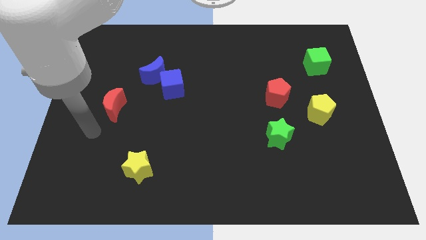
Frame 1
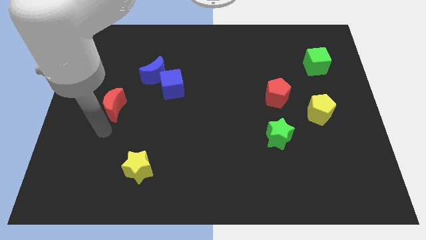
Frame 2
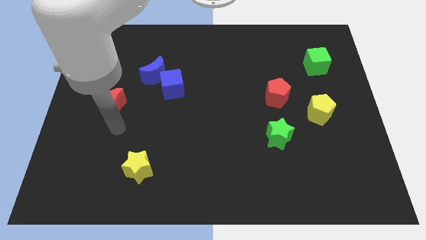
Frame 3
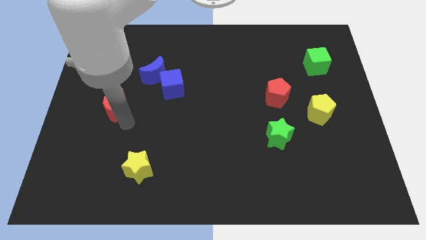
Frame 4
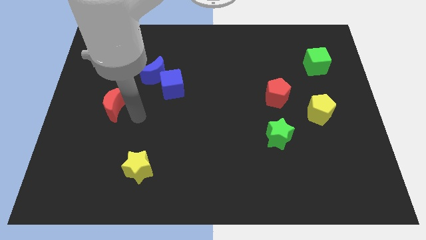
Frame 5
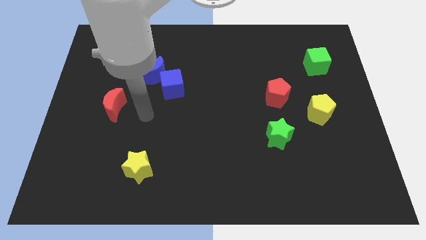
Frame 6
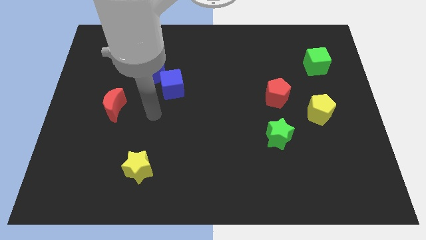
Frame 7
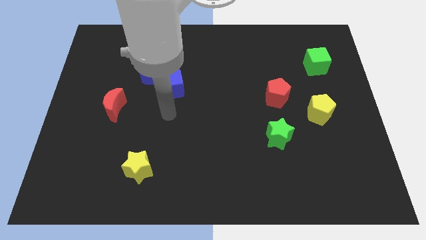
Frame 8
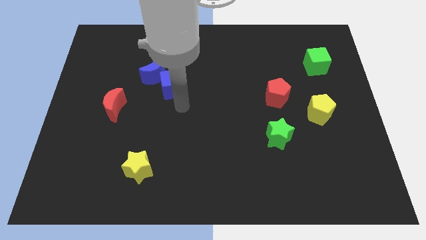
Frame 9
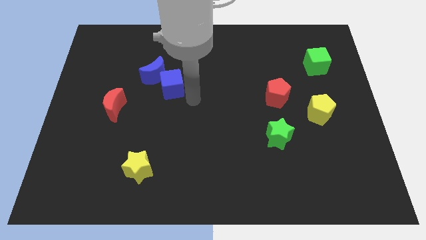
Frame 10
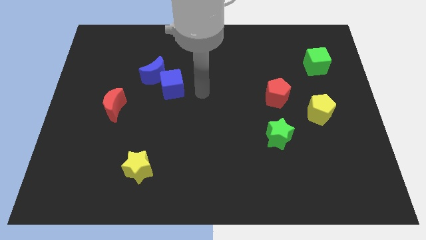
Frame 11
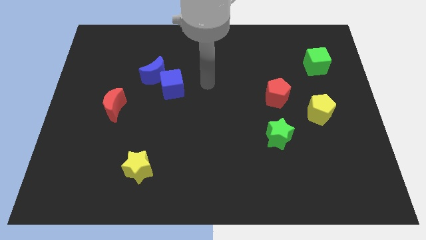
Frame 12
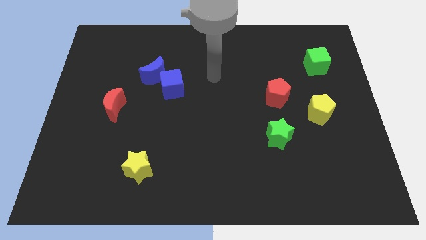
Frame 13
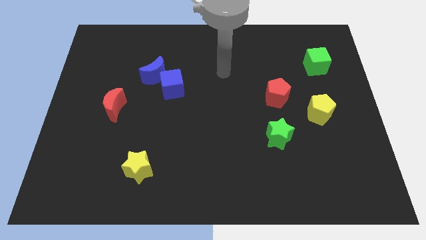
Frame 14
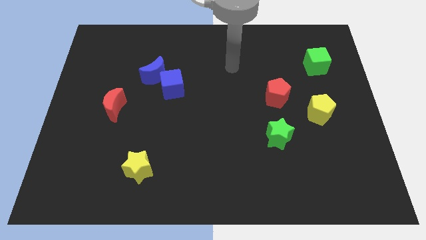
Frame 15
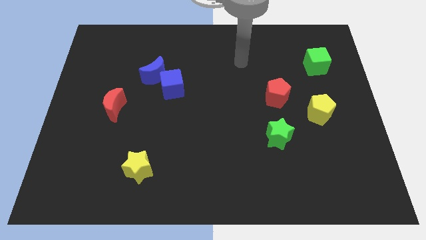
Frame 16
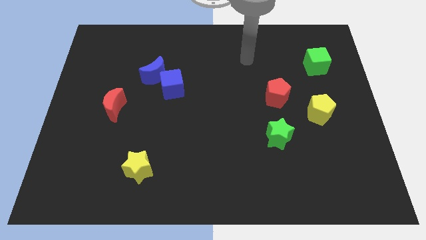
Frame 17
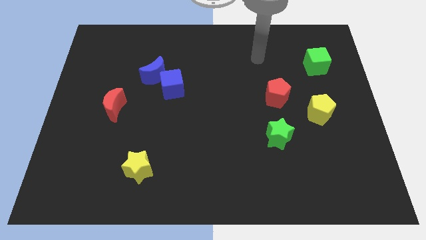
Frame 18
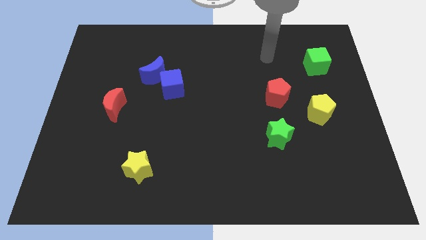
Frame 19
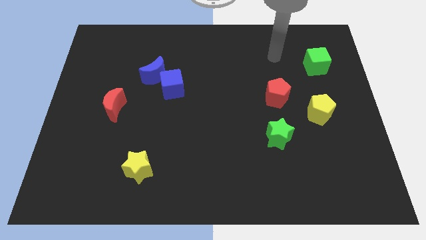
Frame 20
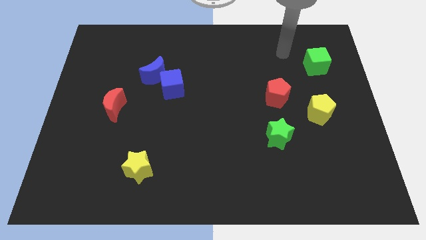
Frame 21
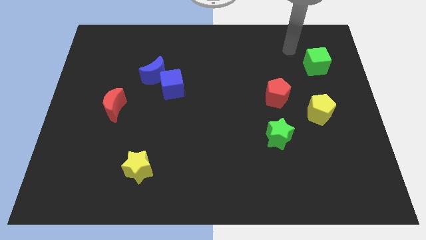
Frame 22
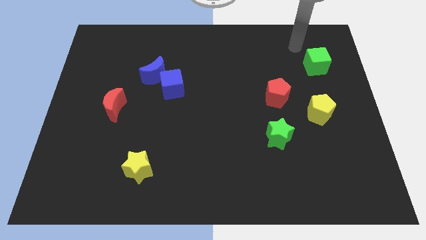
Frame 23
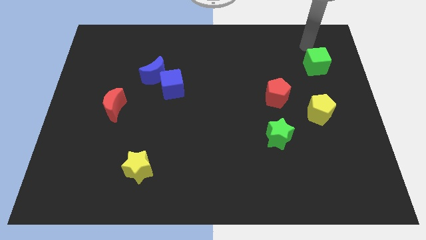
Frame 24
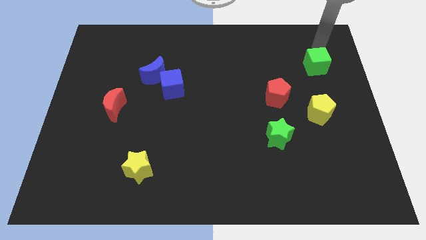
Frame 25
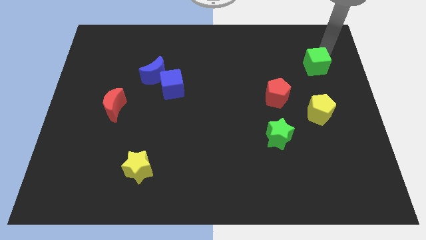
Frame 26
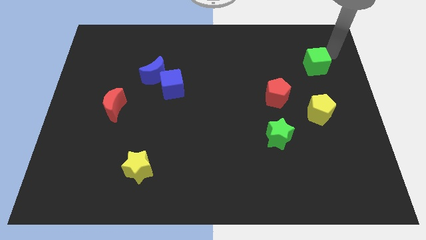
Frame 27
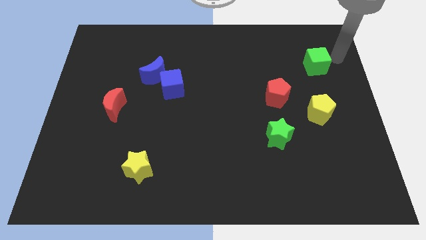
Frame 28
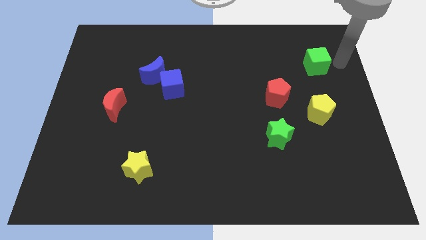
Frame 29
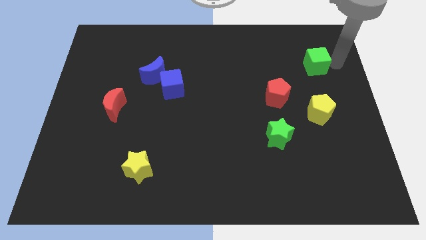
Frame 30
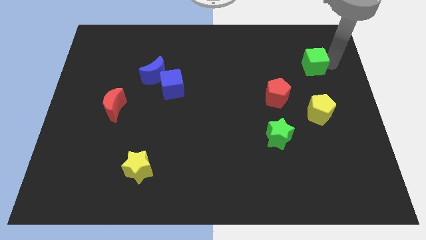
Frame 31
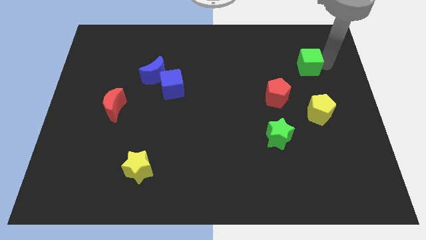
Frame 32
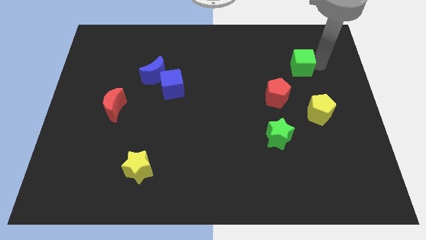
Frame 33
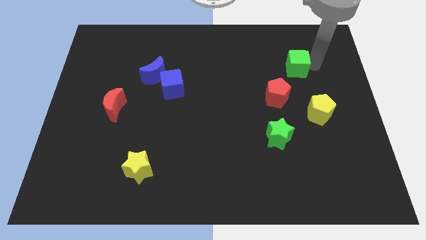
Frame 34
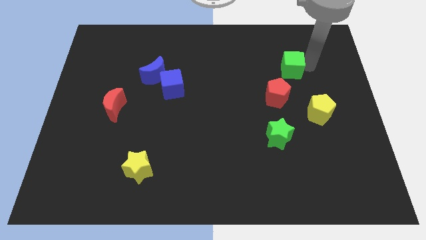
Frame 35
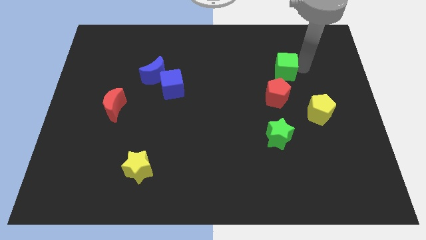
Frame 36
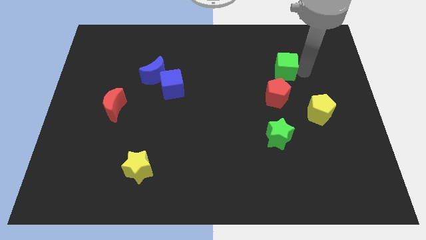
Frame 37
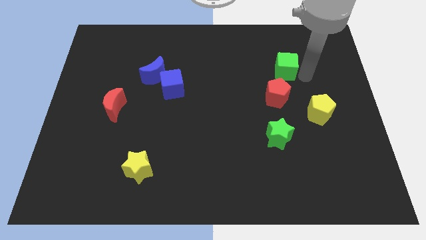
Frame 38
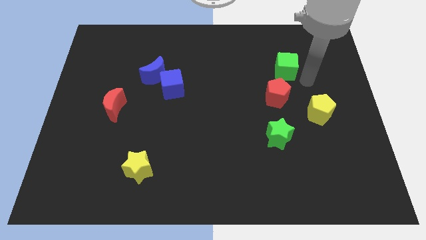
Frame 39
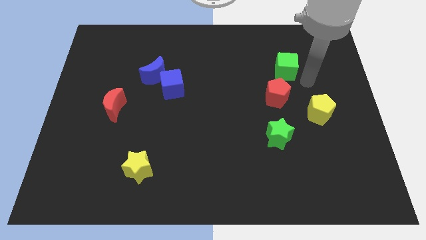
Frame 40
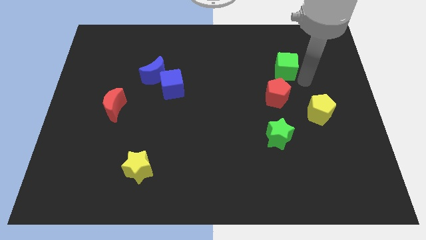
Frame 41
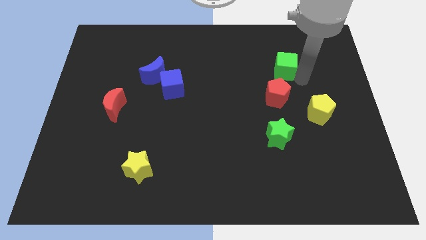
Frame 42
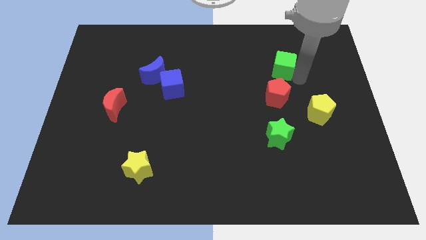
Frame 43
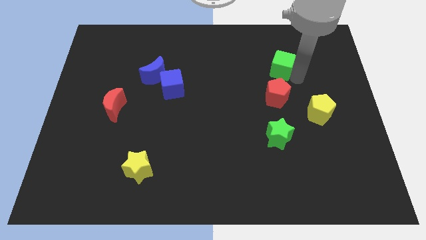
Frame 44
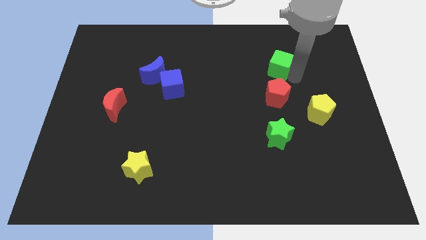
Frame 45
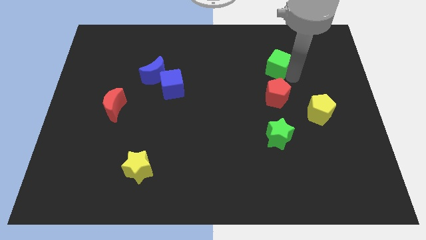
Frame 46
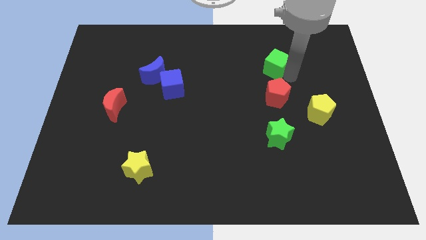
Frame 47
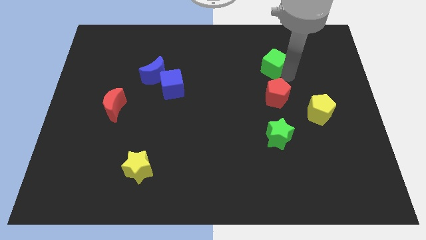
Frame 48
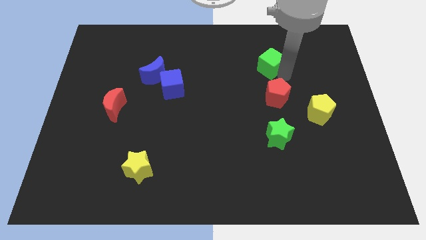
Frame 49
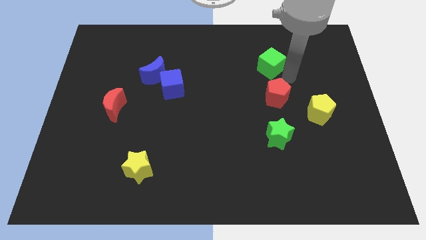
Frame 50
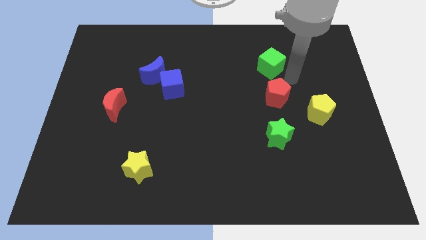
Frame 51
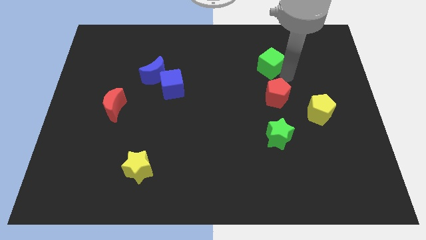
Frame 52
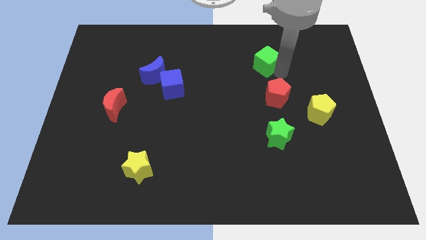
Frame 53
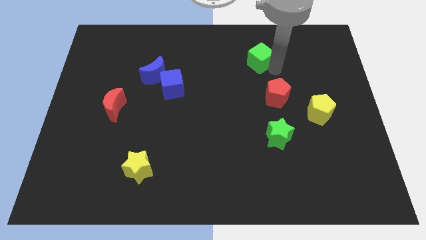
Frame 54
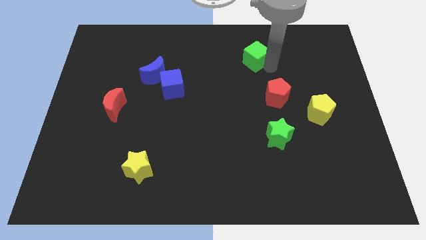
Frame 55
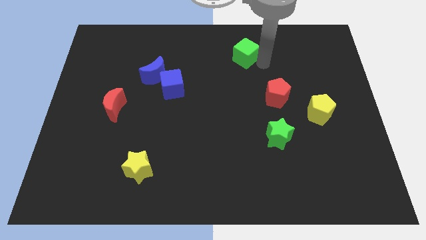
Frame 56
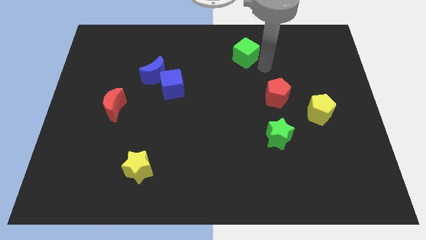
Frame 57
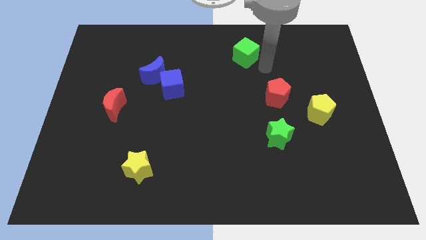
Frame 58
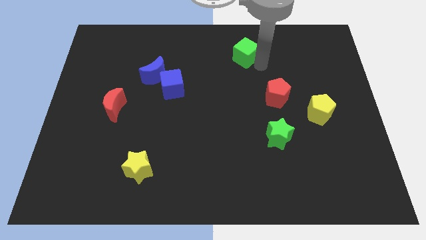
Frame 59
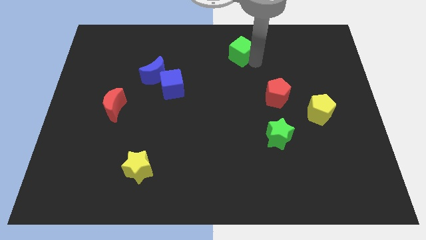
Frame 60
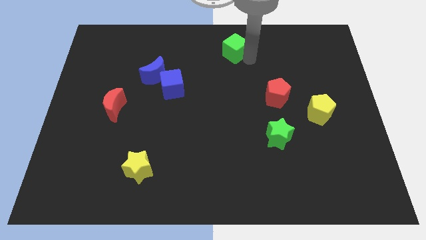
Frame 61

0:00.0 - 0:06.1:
move the green cube to the towards your base
